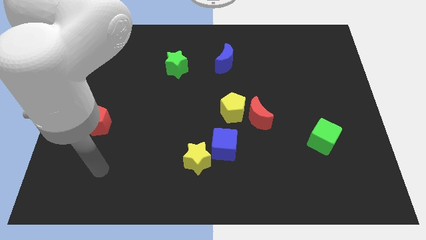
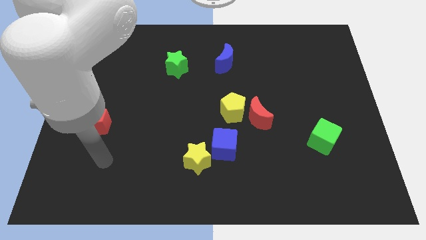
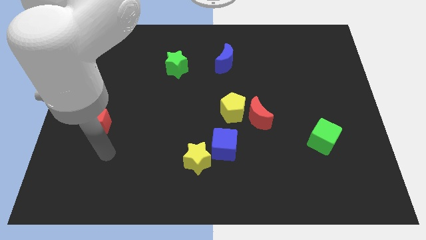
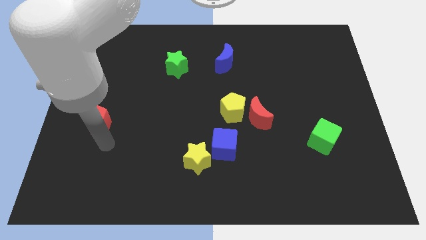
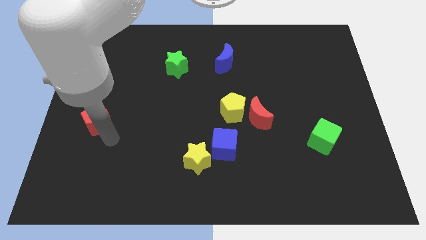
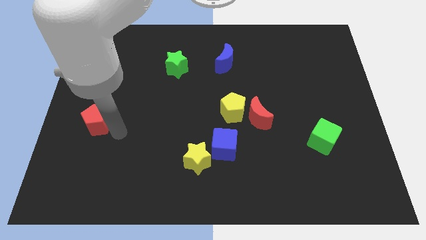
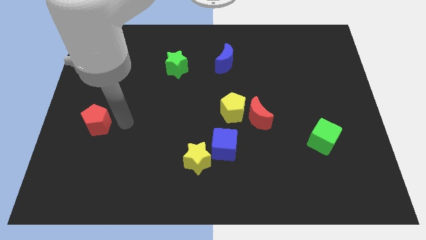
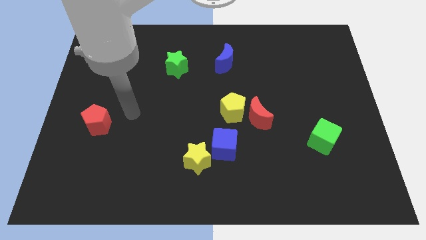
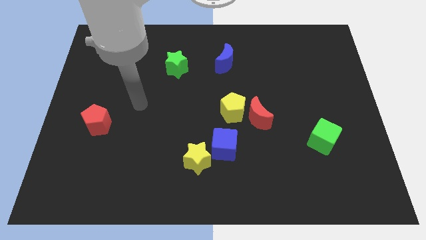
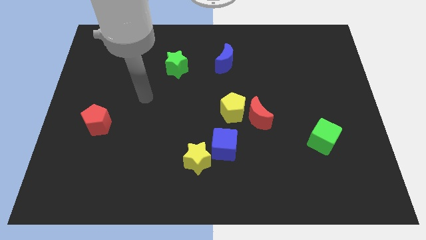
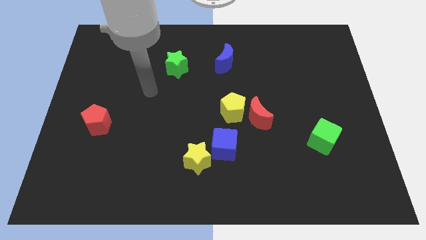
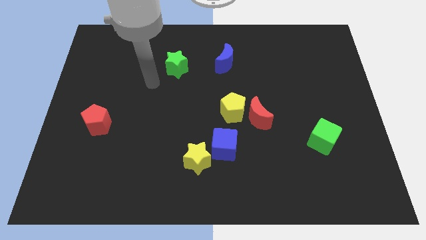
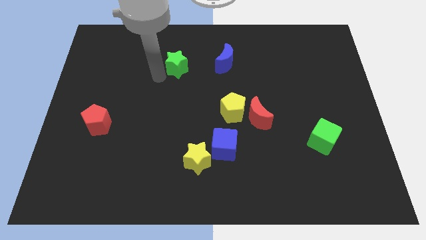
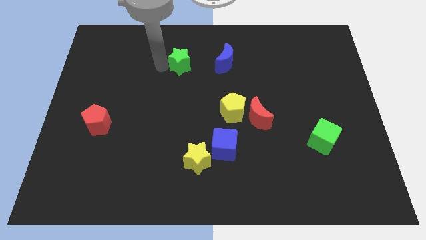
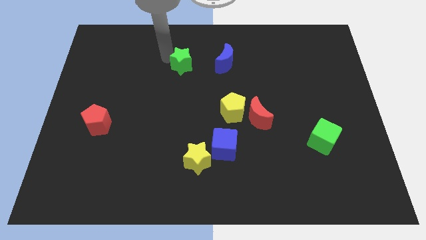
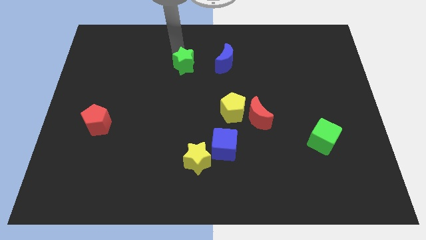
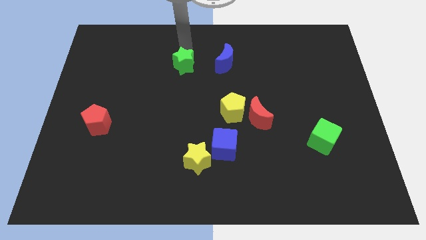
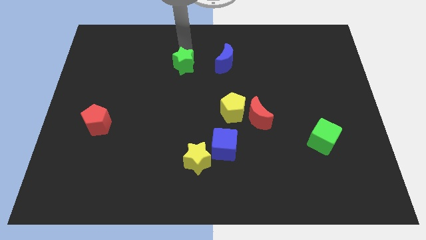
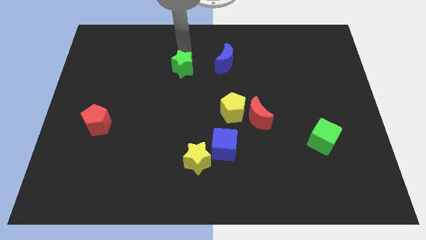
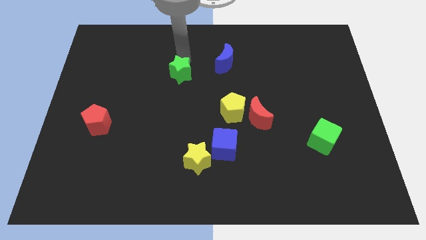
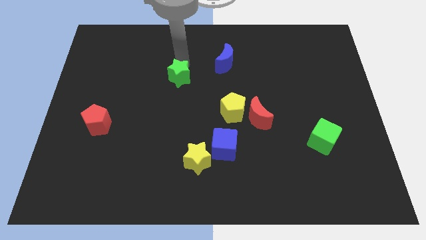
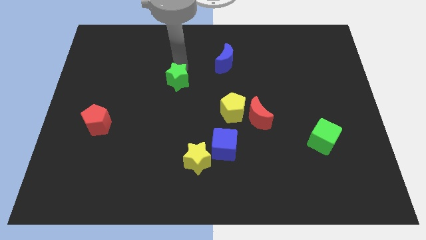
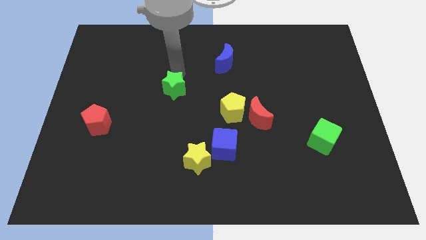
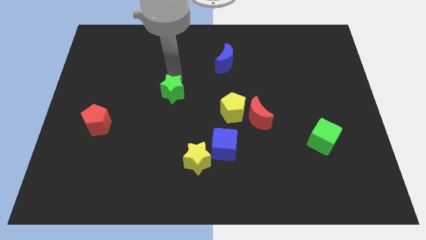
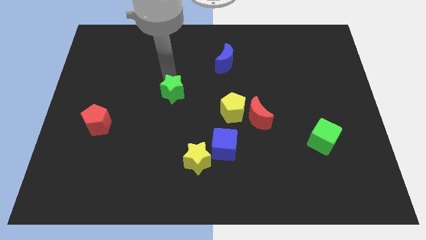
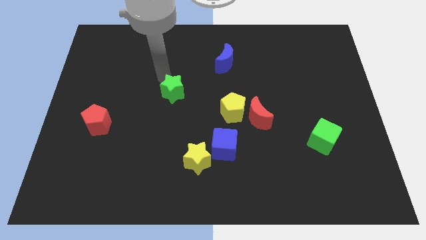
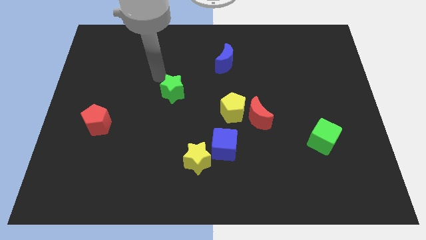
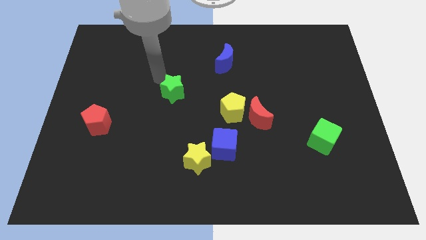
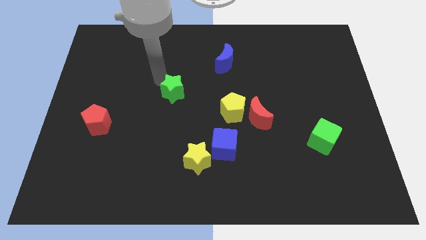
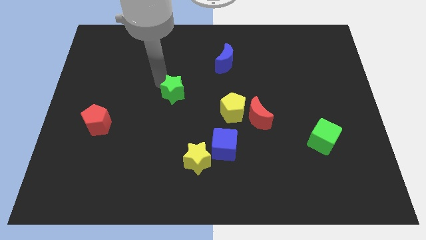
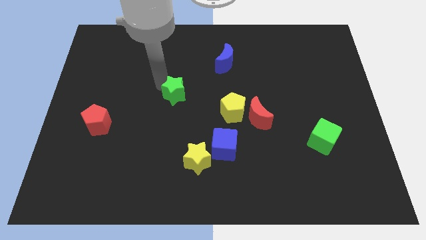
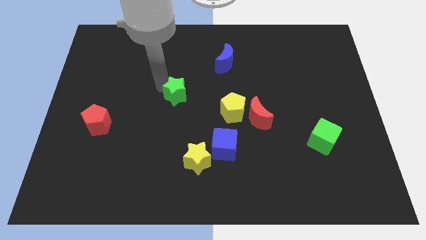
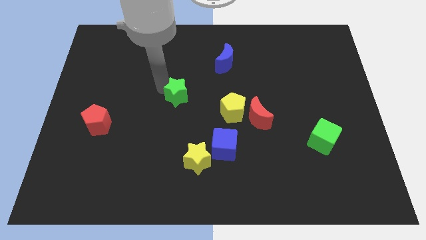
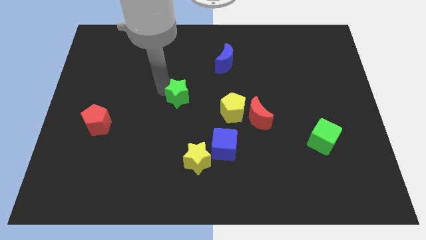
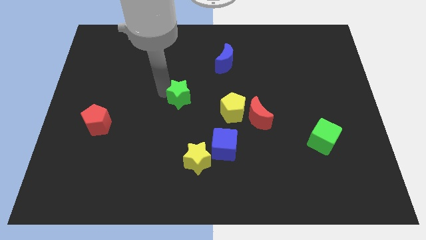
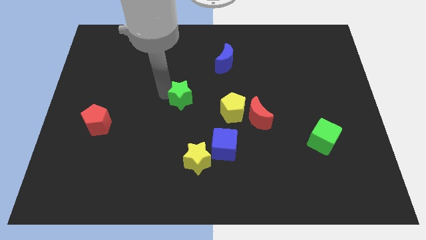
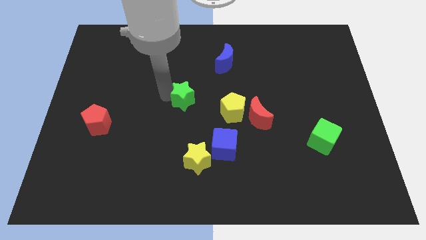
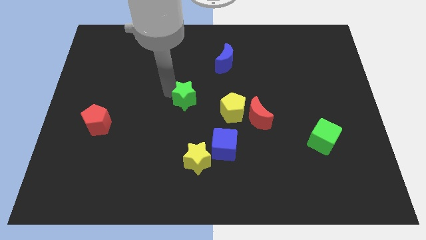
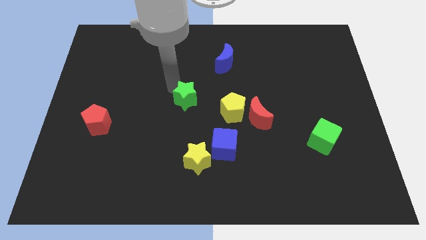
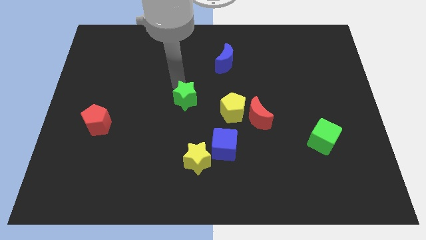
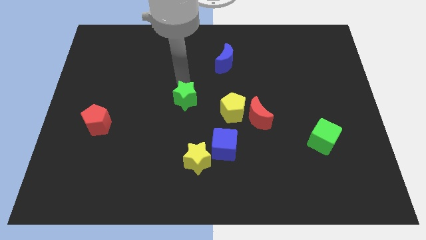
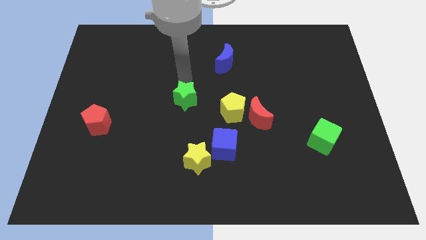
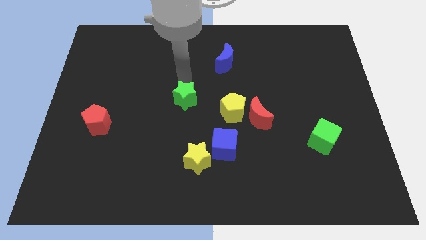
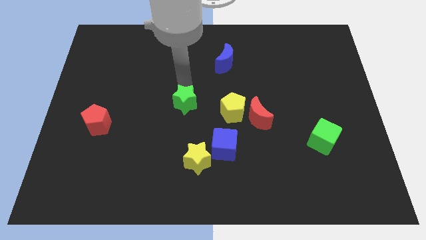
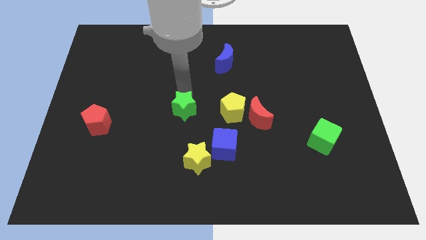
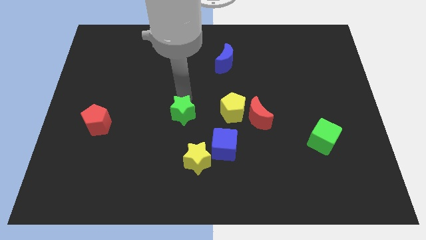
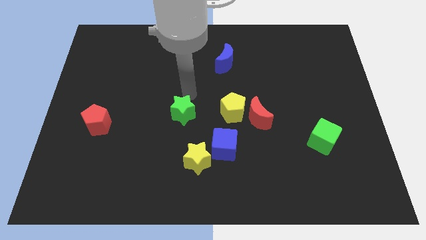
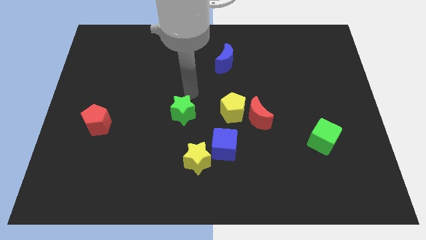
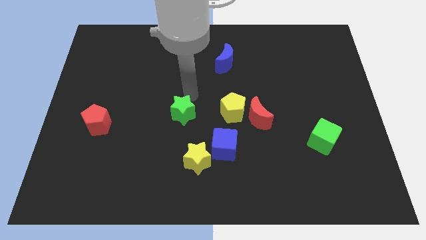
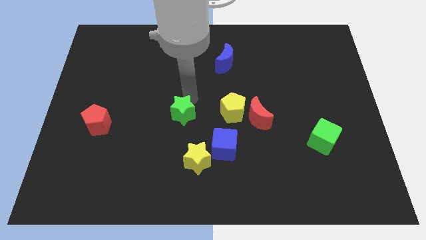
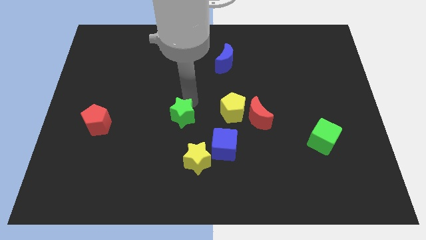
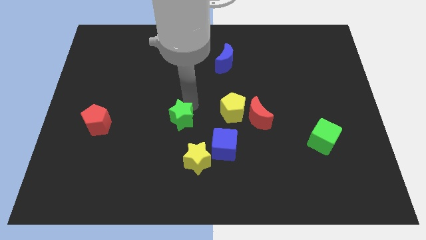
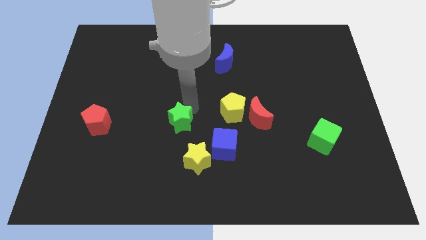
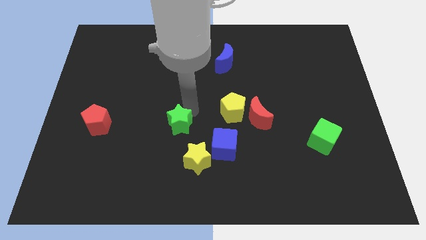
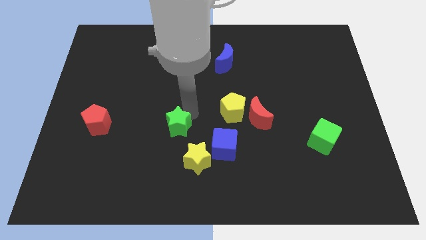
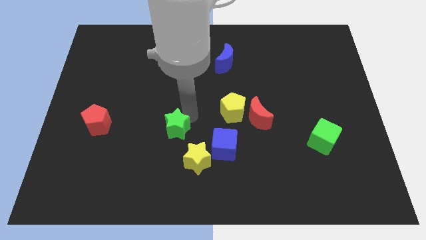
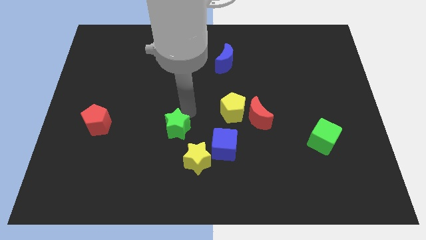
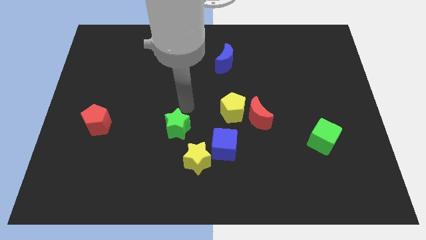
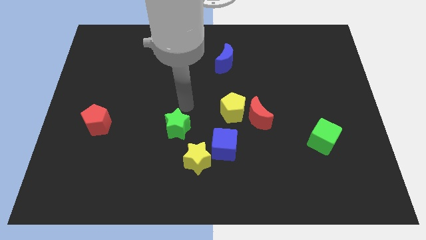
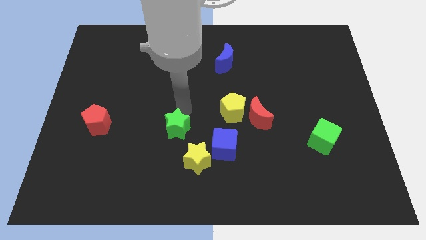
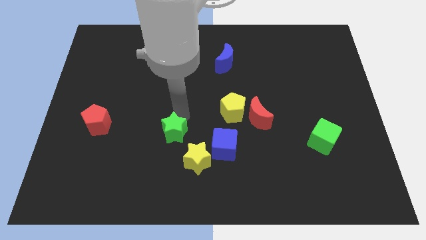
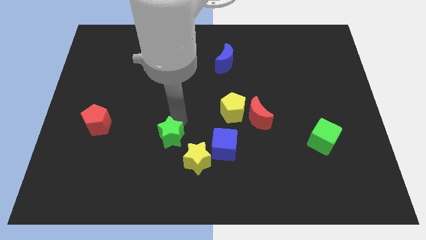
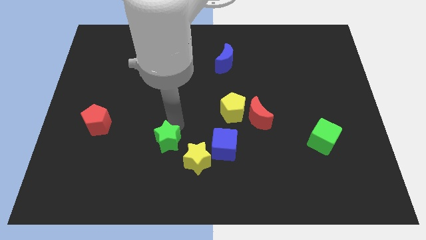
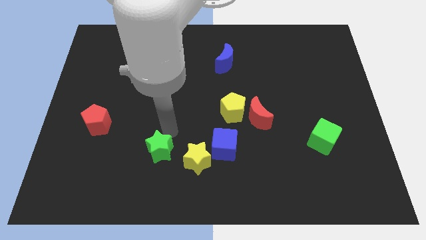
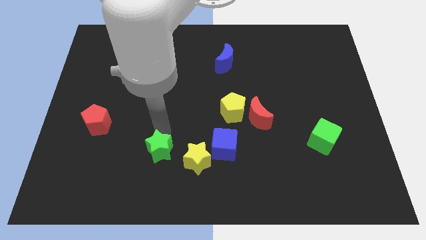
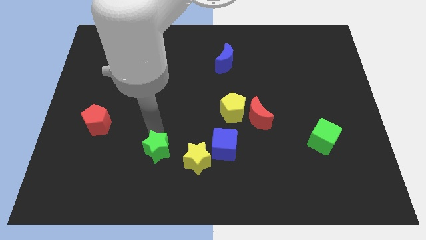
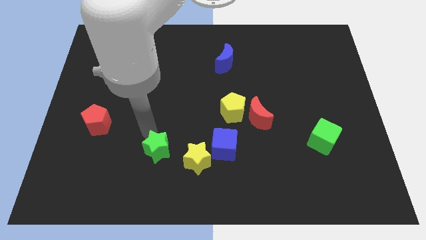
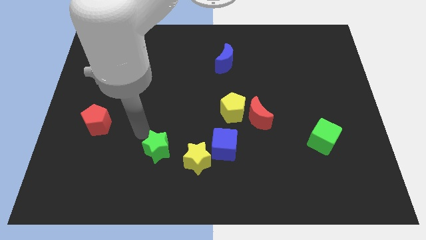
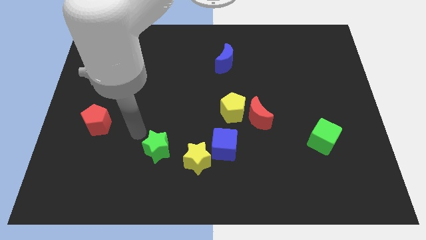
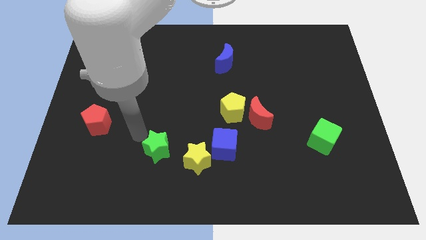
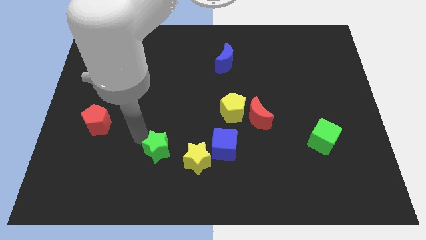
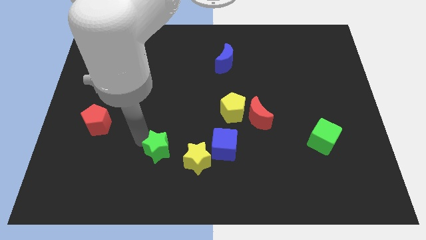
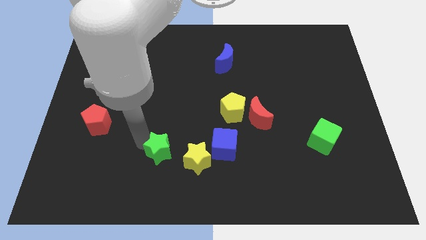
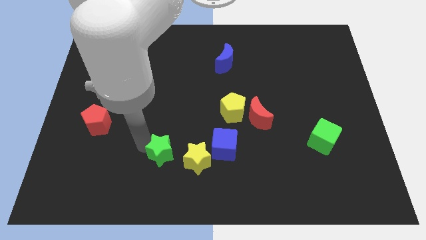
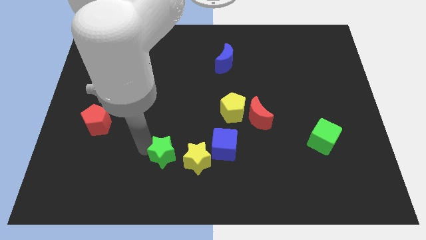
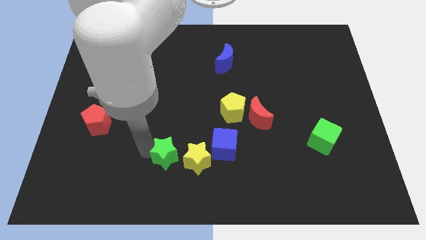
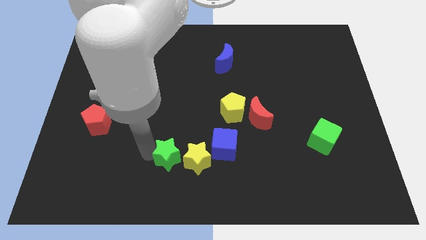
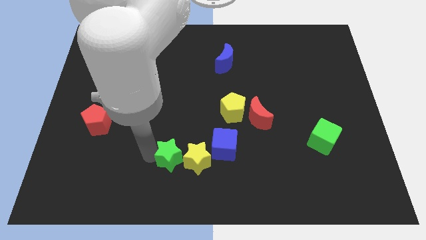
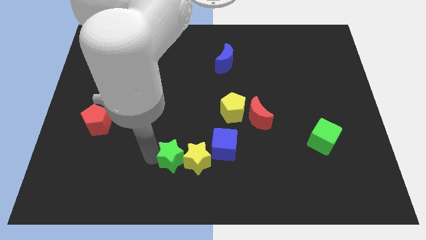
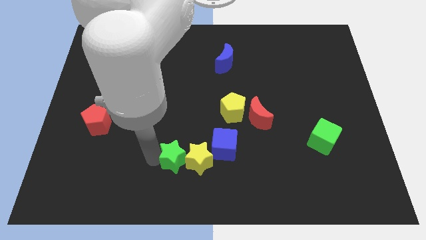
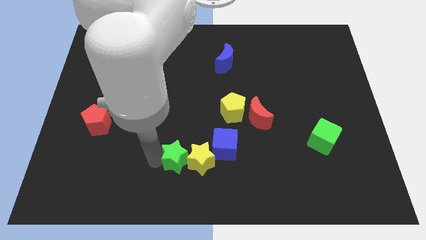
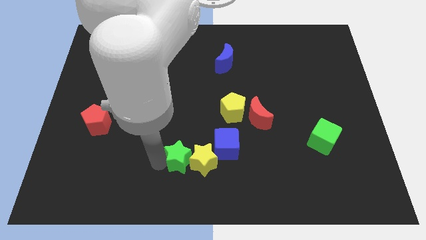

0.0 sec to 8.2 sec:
push the green star to the bottom side
